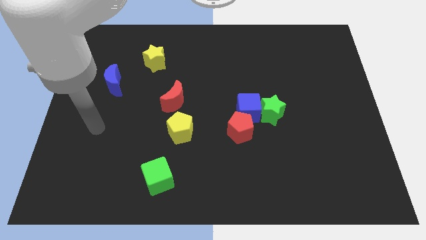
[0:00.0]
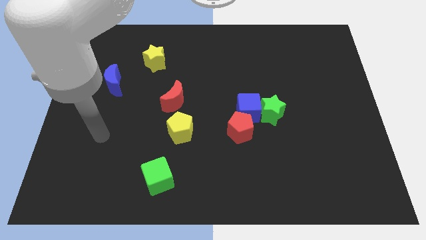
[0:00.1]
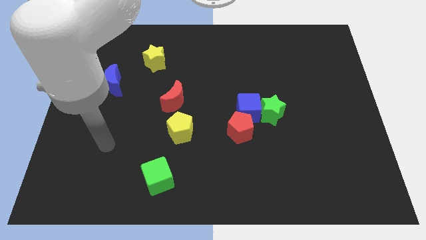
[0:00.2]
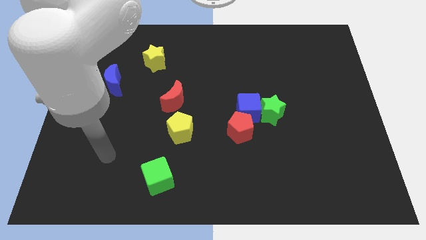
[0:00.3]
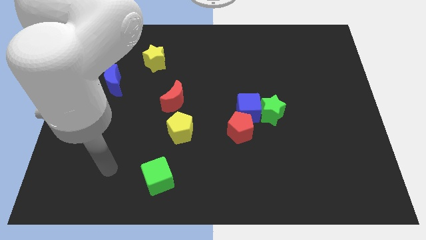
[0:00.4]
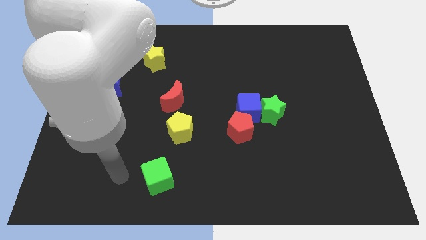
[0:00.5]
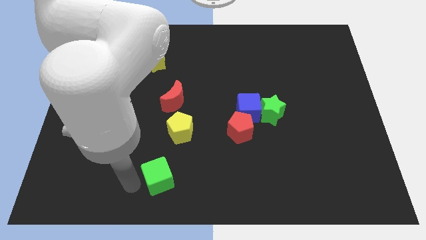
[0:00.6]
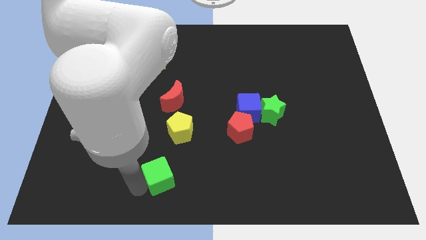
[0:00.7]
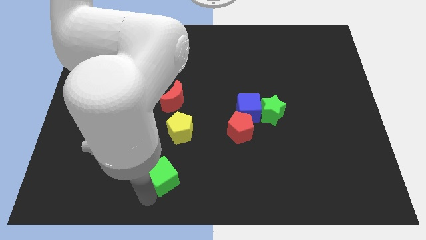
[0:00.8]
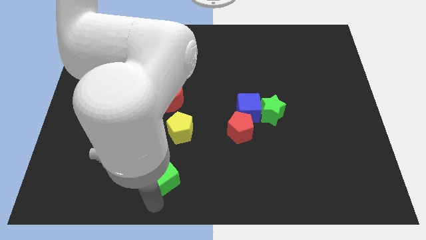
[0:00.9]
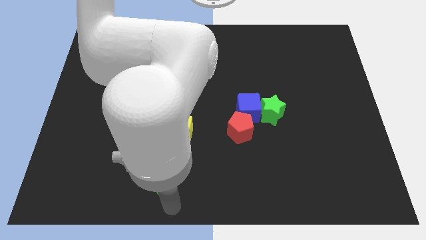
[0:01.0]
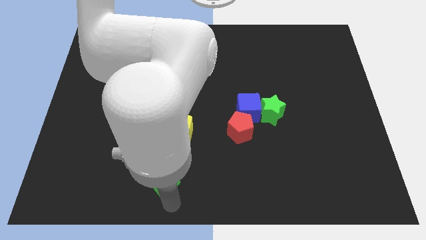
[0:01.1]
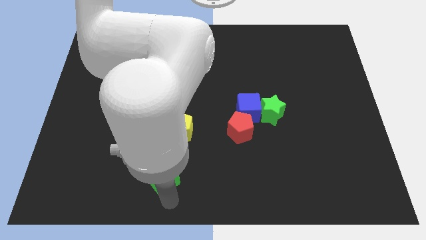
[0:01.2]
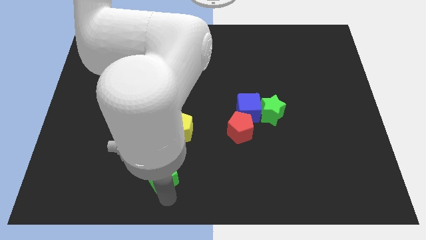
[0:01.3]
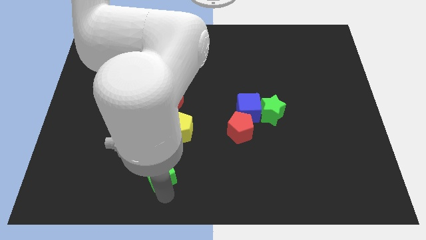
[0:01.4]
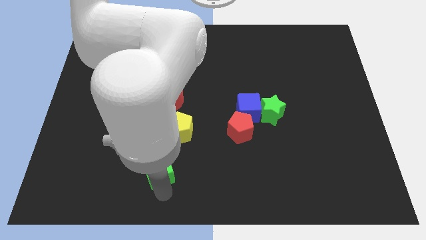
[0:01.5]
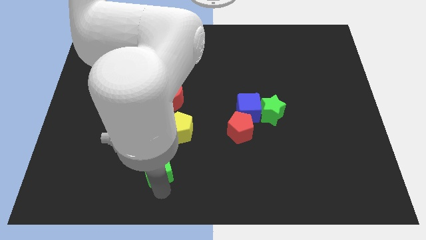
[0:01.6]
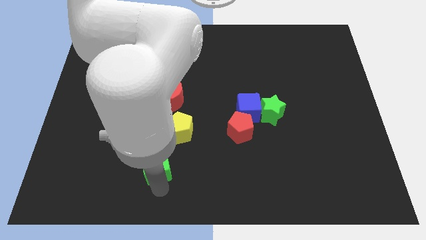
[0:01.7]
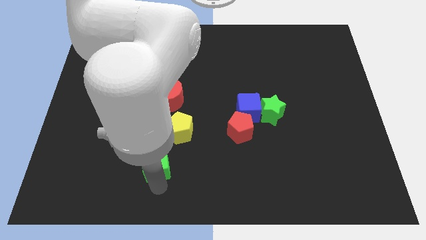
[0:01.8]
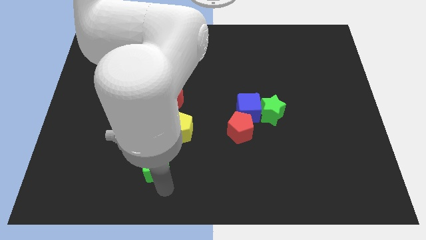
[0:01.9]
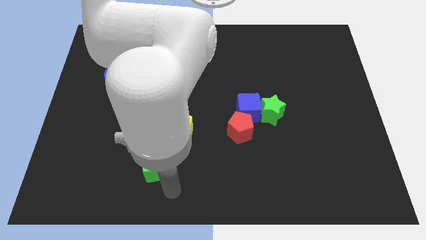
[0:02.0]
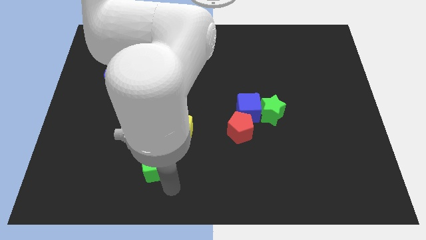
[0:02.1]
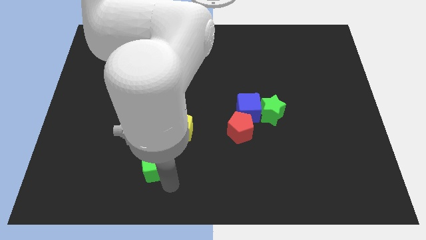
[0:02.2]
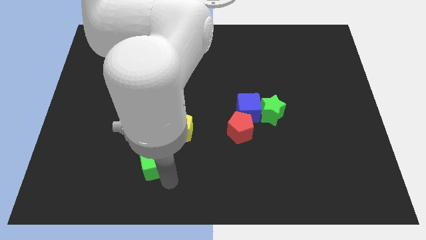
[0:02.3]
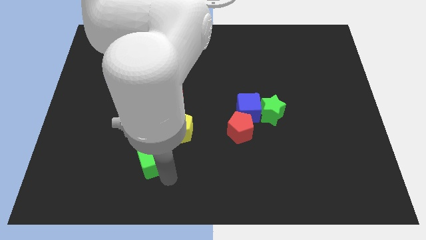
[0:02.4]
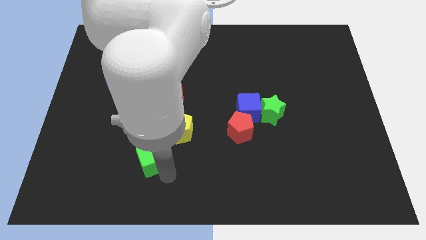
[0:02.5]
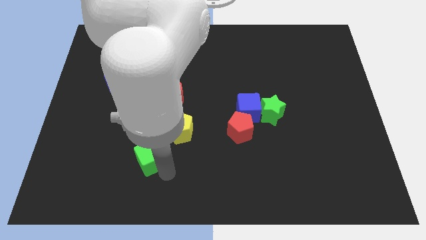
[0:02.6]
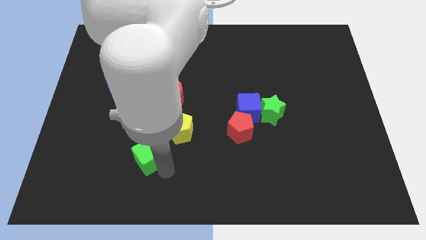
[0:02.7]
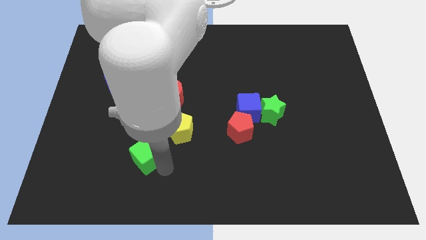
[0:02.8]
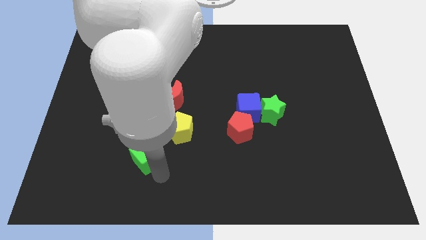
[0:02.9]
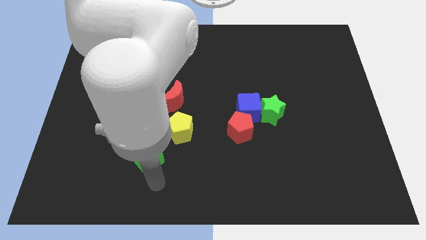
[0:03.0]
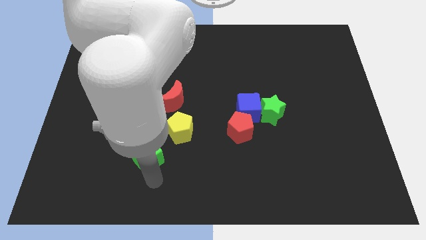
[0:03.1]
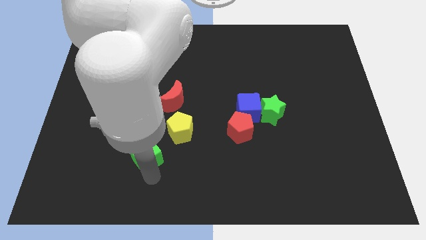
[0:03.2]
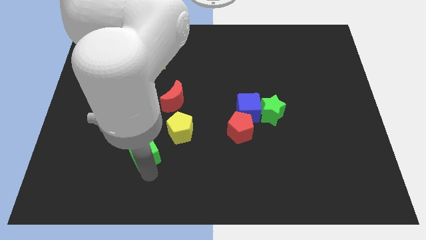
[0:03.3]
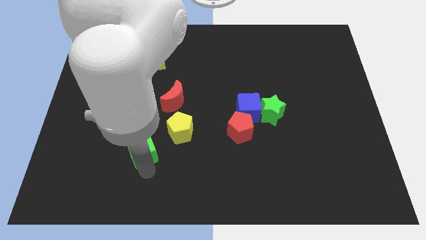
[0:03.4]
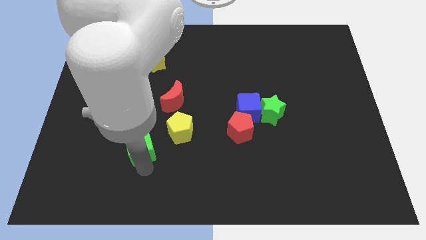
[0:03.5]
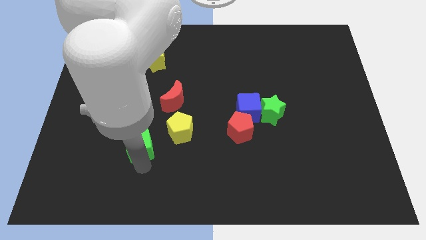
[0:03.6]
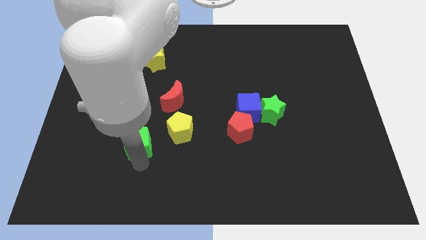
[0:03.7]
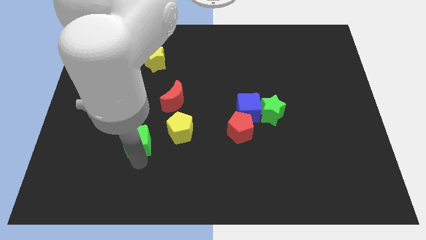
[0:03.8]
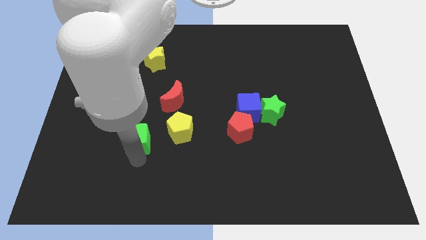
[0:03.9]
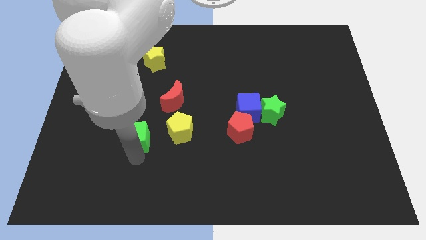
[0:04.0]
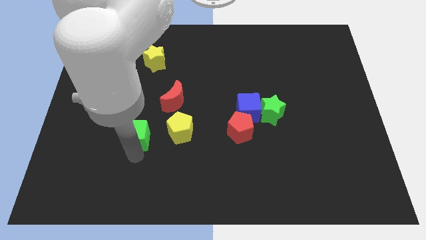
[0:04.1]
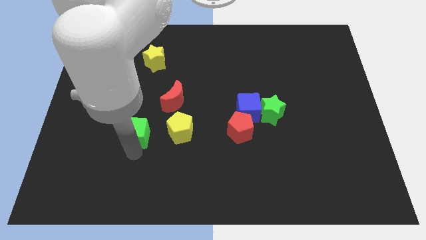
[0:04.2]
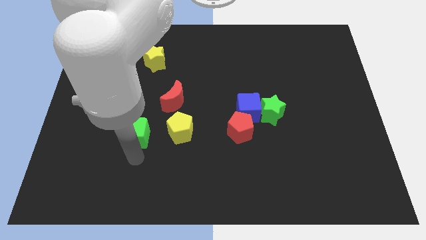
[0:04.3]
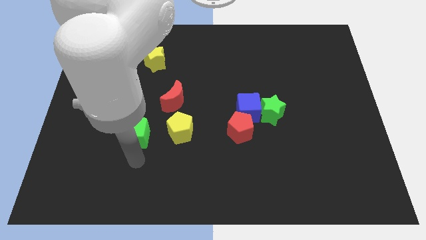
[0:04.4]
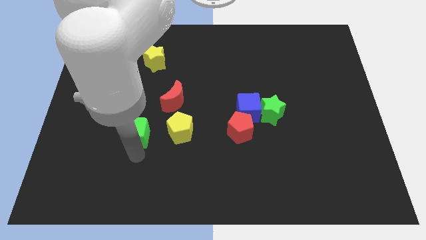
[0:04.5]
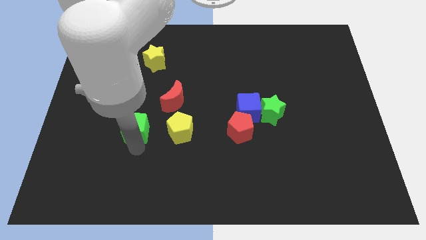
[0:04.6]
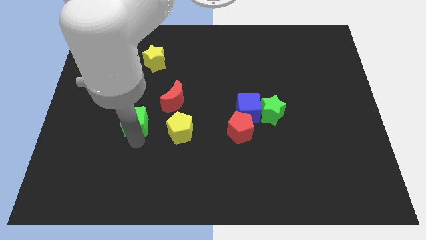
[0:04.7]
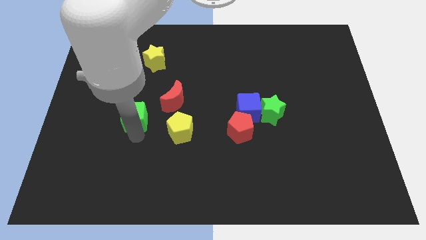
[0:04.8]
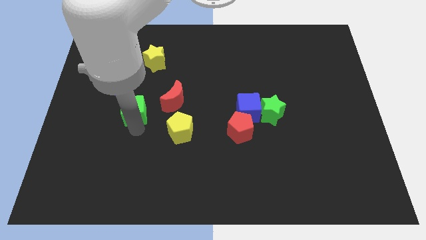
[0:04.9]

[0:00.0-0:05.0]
slide the green cube to the bottom right side of the blue moon

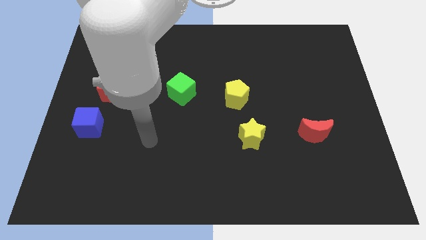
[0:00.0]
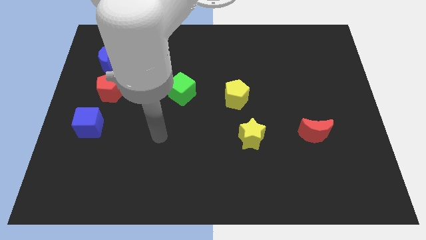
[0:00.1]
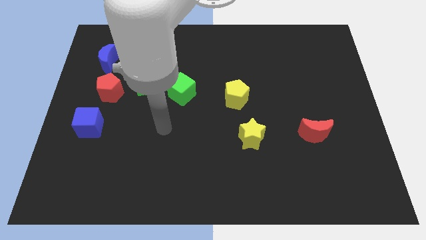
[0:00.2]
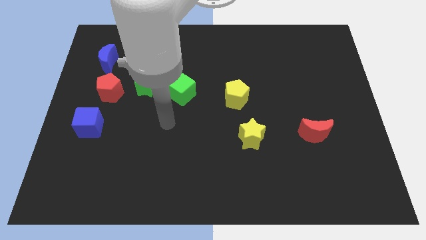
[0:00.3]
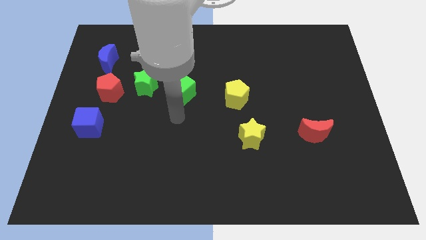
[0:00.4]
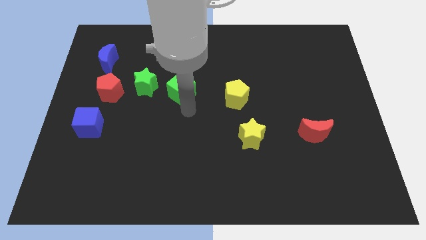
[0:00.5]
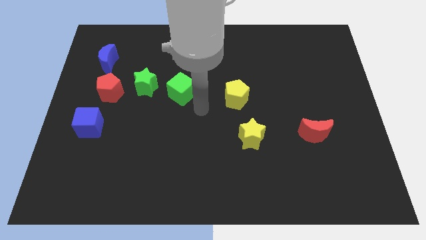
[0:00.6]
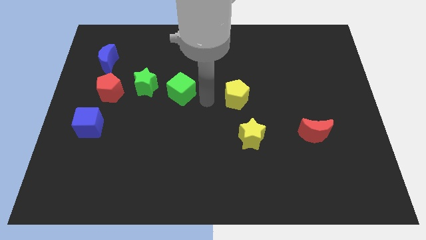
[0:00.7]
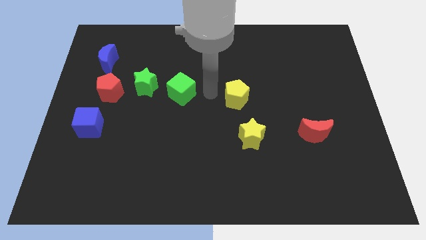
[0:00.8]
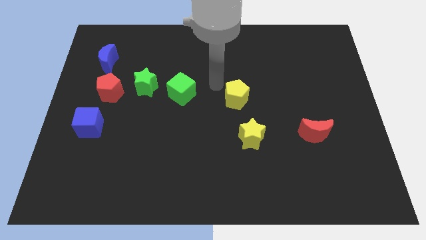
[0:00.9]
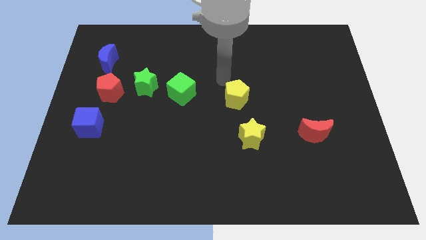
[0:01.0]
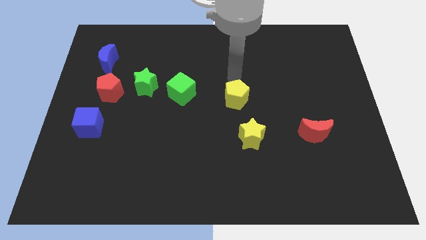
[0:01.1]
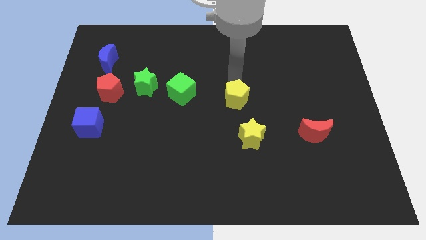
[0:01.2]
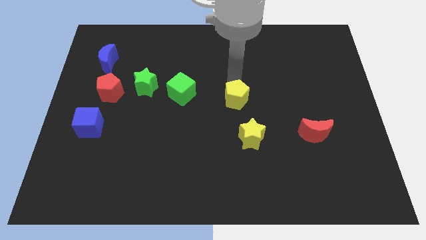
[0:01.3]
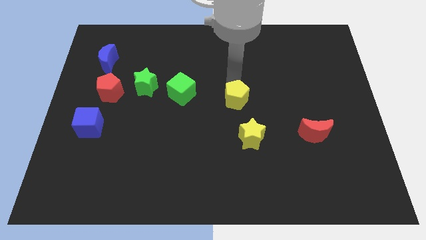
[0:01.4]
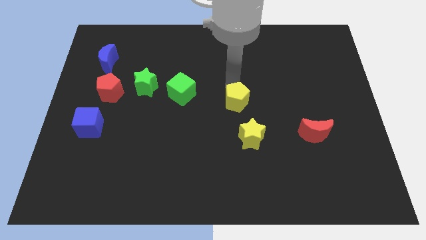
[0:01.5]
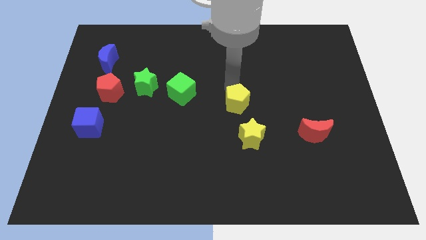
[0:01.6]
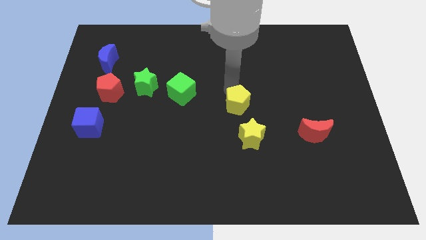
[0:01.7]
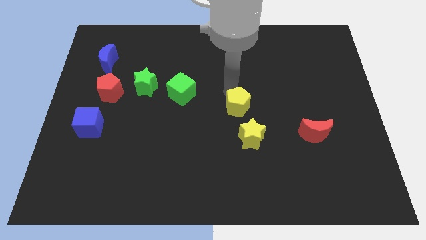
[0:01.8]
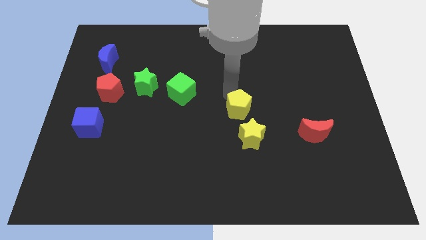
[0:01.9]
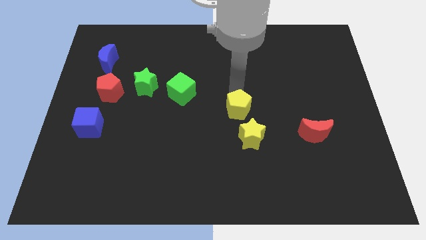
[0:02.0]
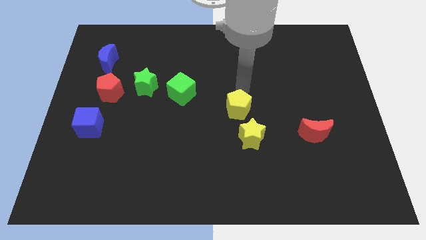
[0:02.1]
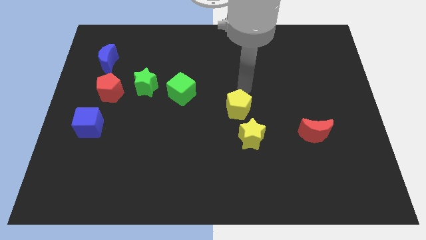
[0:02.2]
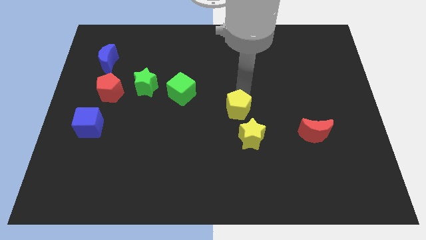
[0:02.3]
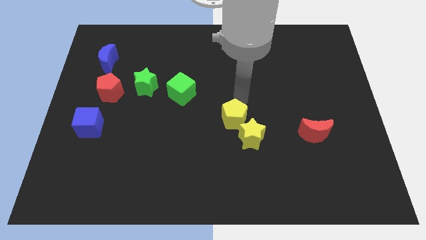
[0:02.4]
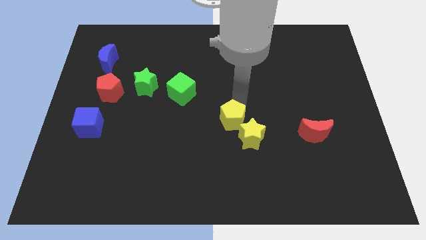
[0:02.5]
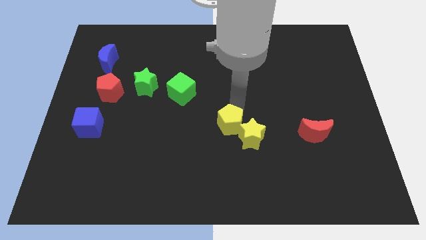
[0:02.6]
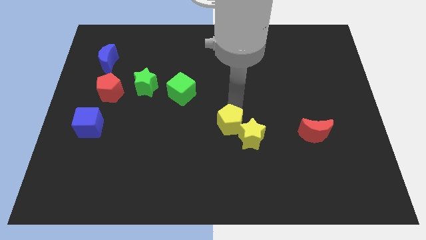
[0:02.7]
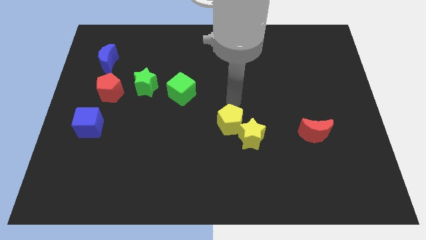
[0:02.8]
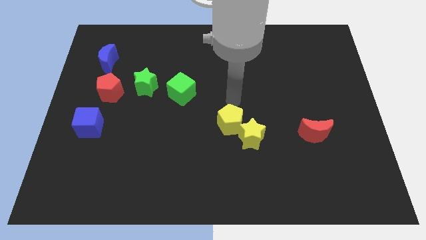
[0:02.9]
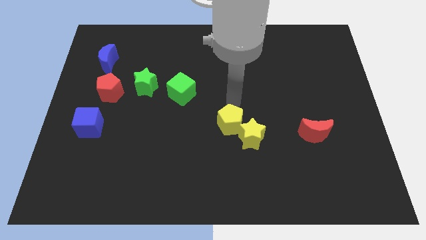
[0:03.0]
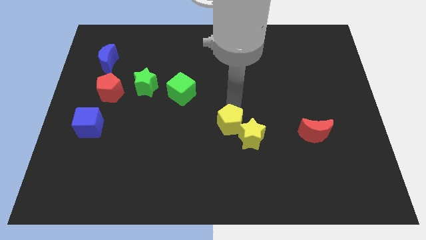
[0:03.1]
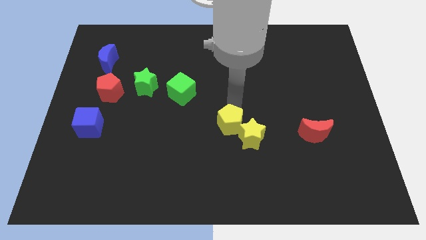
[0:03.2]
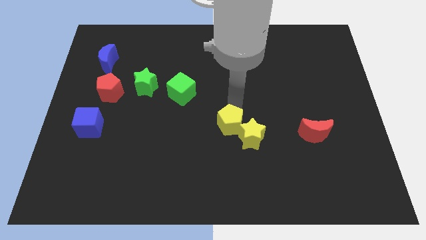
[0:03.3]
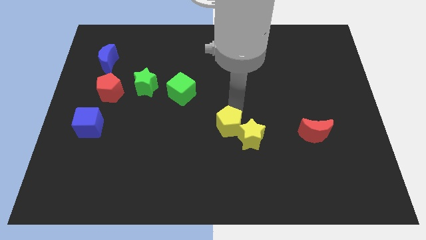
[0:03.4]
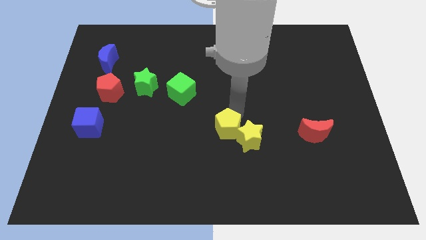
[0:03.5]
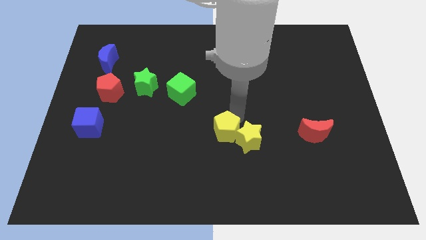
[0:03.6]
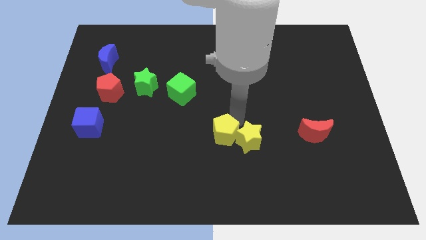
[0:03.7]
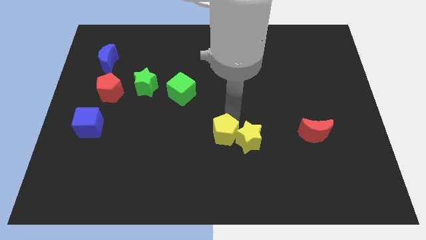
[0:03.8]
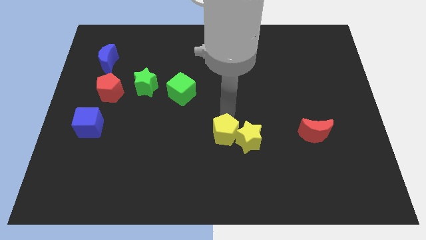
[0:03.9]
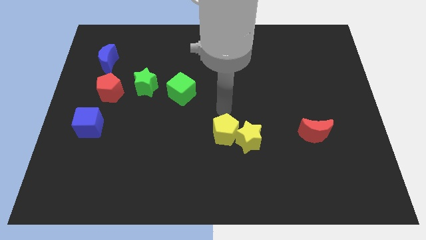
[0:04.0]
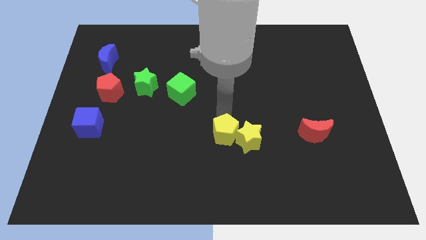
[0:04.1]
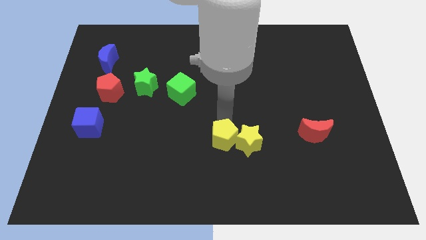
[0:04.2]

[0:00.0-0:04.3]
put the yellow pentagon to the bottom left of the yellow star
